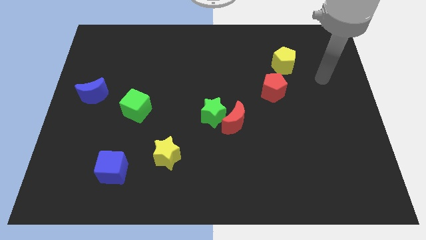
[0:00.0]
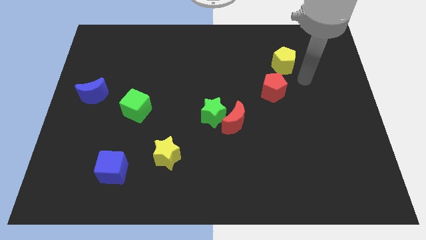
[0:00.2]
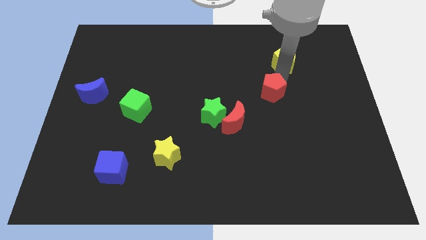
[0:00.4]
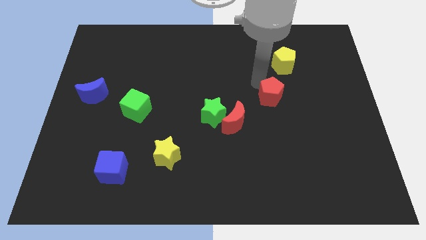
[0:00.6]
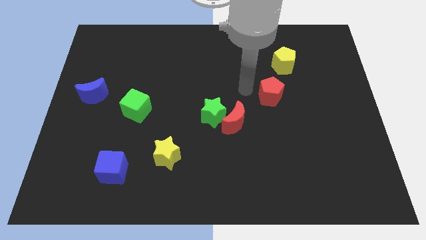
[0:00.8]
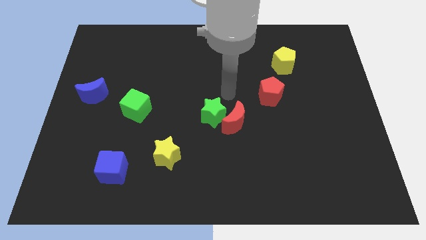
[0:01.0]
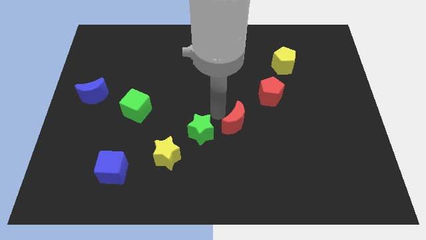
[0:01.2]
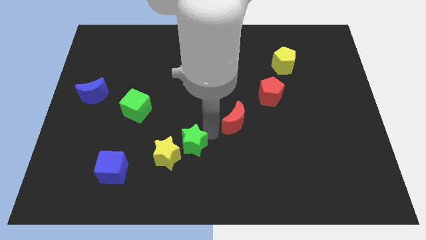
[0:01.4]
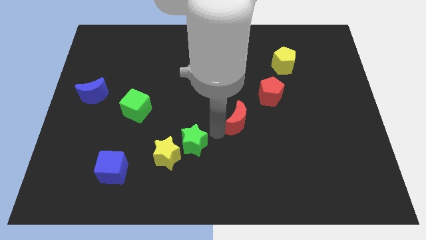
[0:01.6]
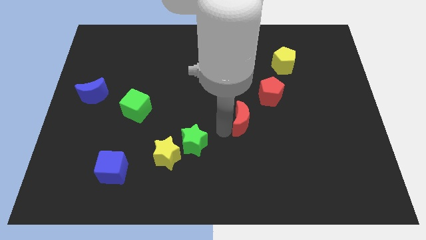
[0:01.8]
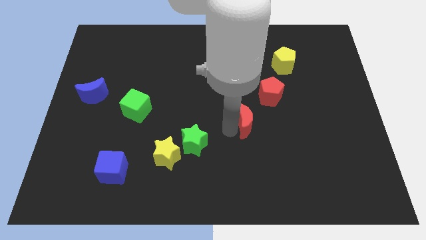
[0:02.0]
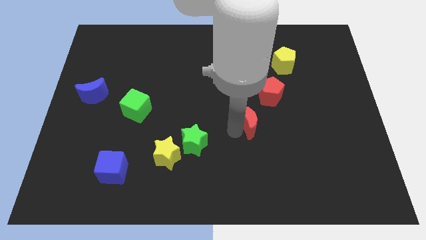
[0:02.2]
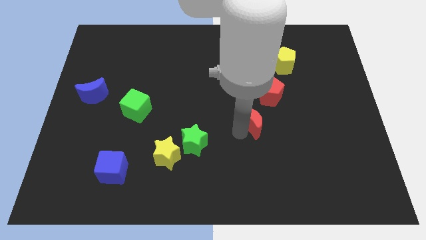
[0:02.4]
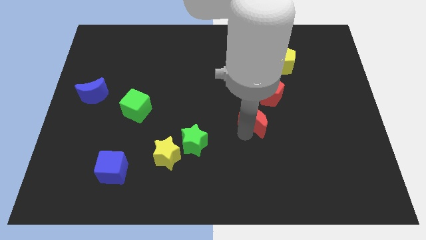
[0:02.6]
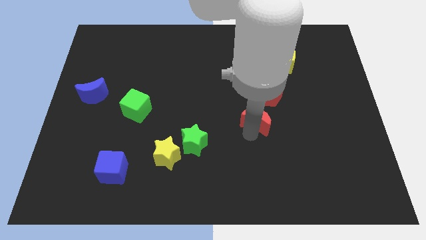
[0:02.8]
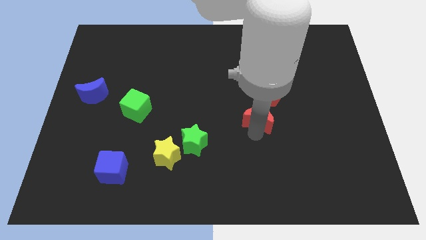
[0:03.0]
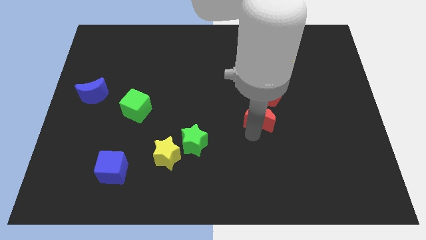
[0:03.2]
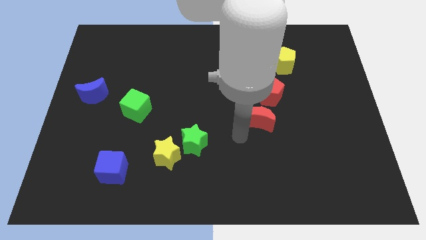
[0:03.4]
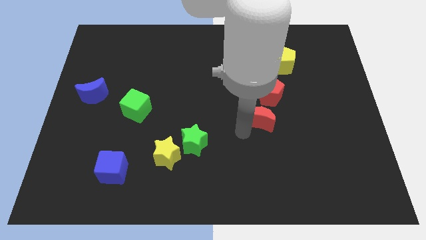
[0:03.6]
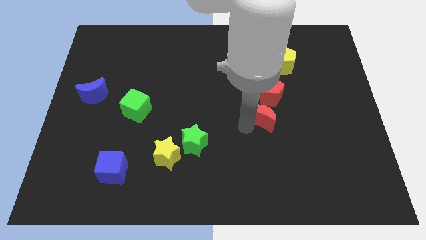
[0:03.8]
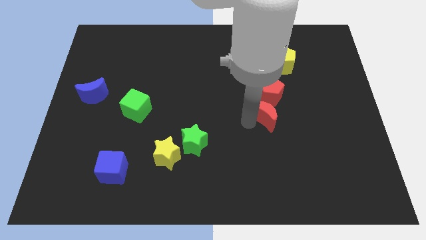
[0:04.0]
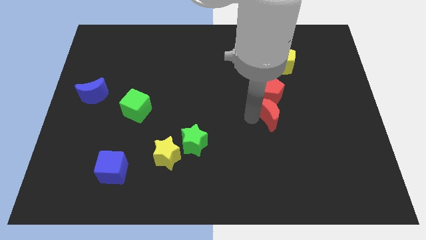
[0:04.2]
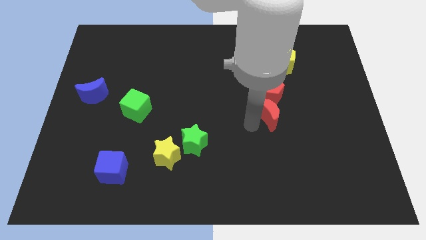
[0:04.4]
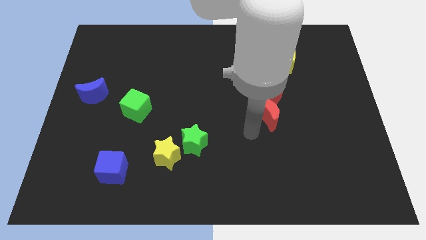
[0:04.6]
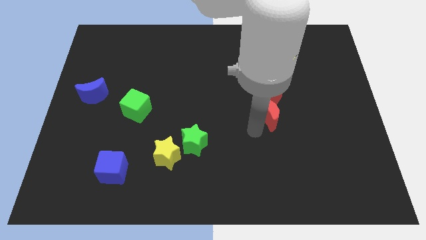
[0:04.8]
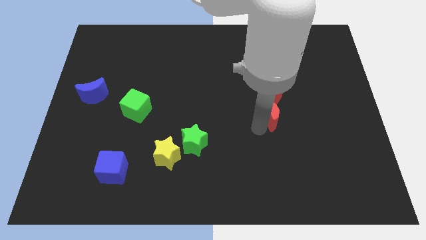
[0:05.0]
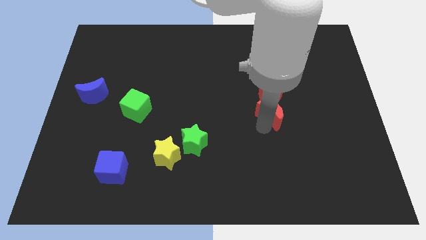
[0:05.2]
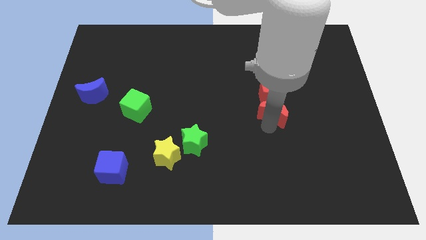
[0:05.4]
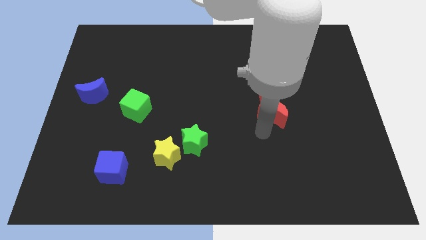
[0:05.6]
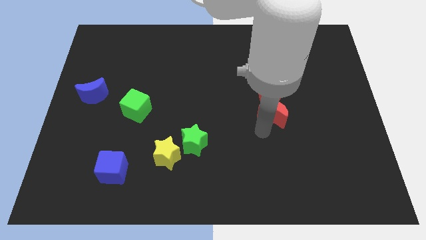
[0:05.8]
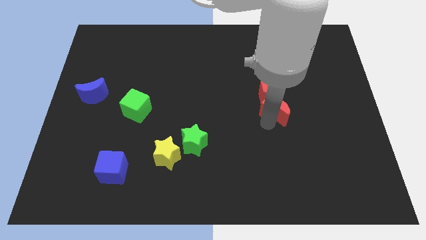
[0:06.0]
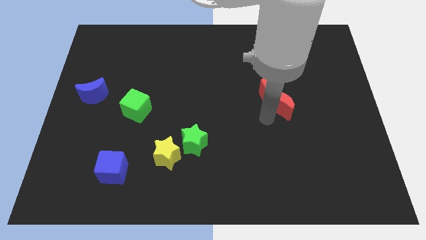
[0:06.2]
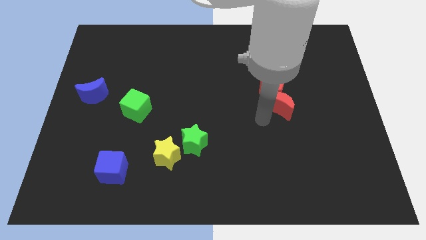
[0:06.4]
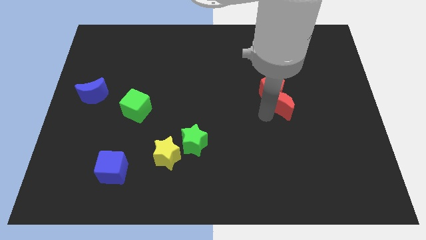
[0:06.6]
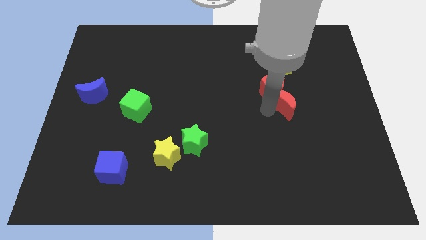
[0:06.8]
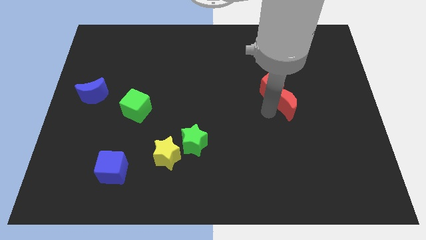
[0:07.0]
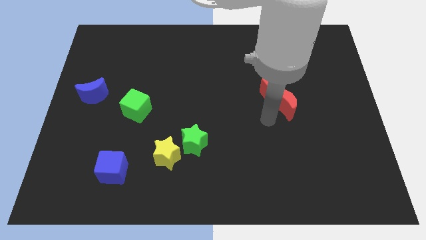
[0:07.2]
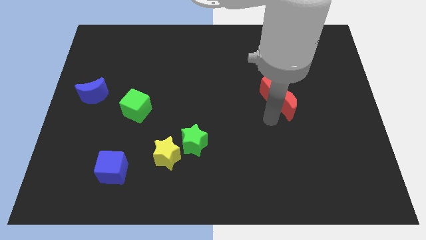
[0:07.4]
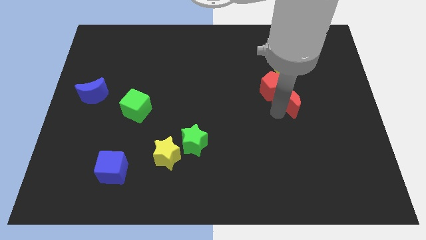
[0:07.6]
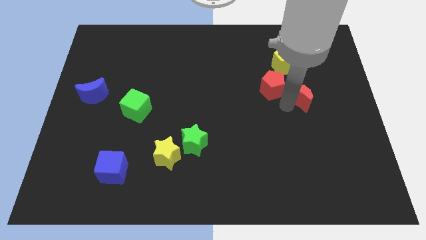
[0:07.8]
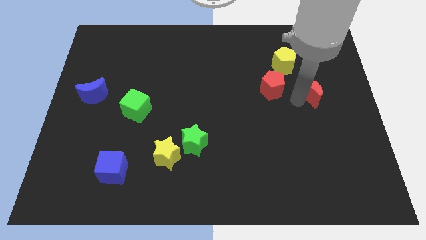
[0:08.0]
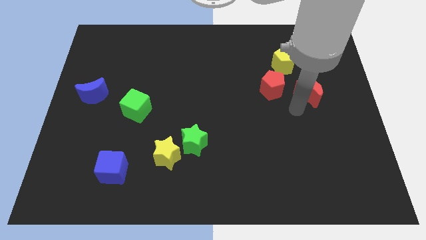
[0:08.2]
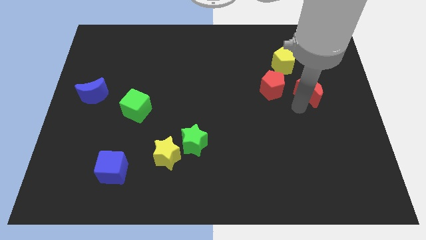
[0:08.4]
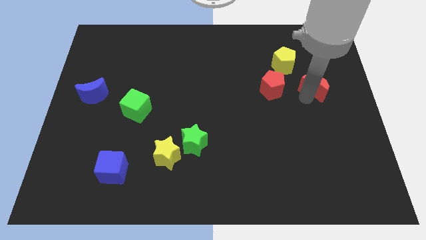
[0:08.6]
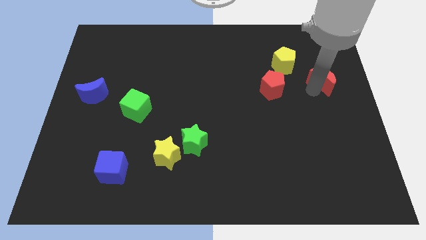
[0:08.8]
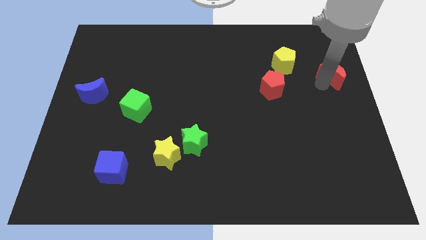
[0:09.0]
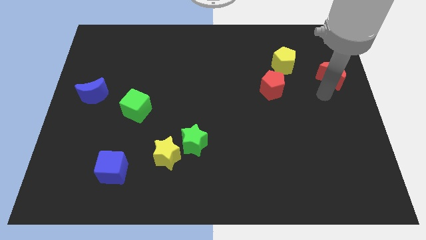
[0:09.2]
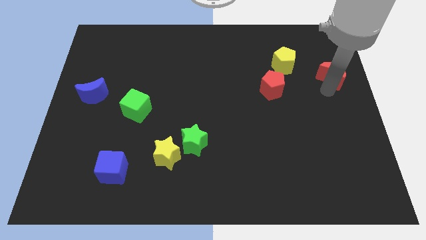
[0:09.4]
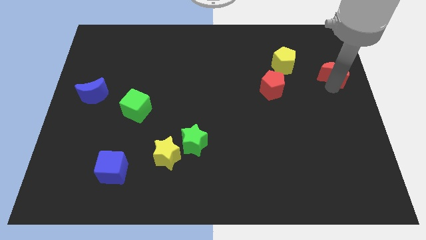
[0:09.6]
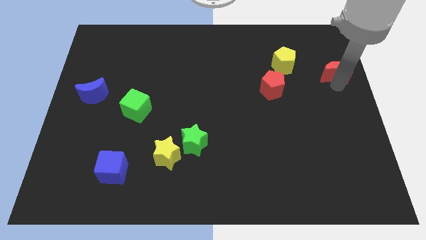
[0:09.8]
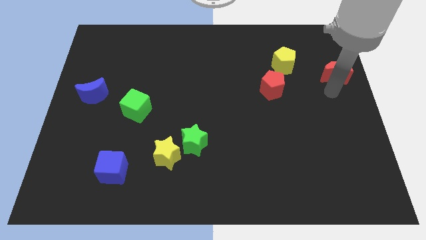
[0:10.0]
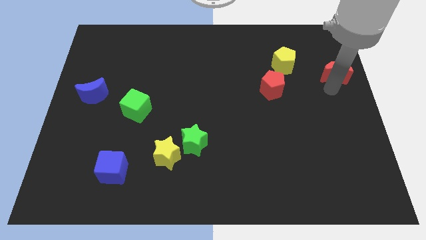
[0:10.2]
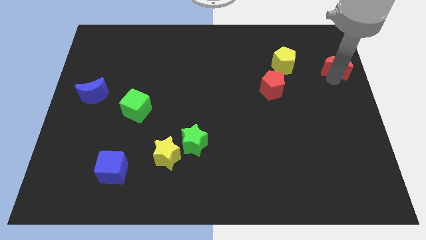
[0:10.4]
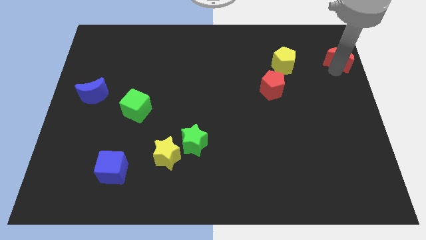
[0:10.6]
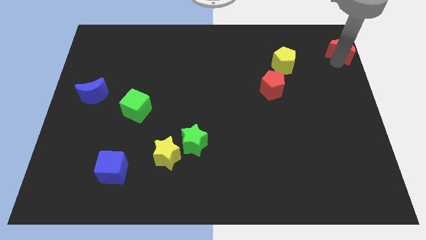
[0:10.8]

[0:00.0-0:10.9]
put the red moon to the top right of the board

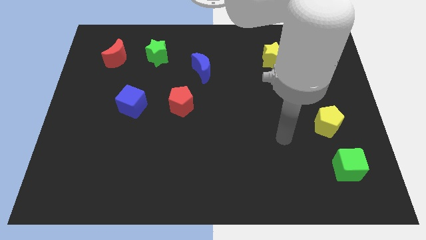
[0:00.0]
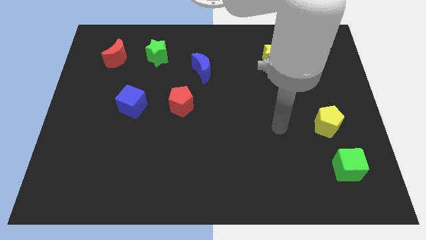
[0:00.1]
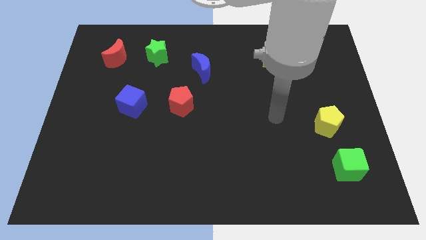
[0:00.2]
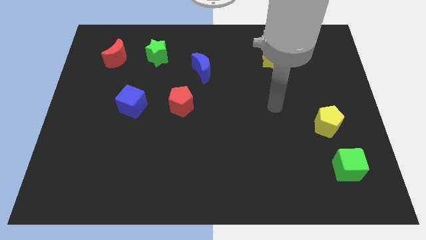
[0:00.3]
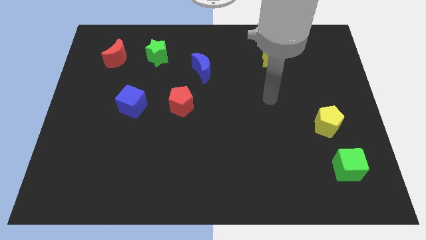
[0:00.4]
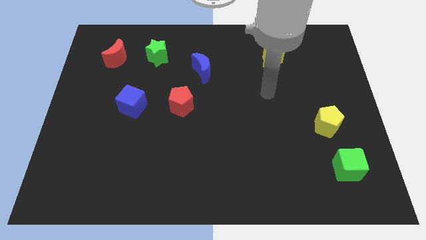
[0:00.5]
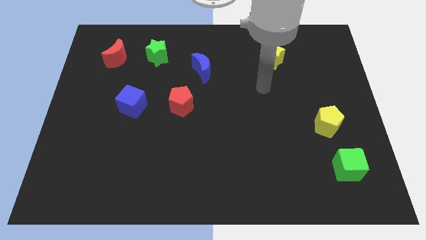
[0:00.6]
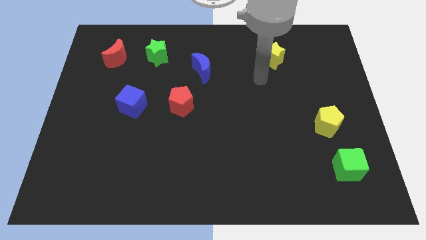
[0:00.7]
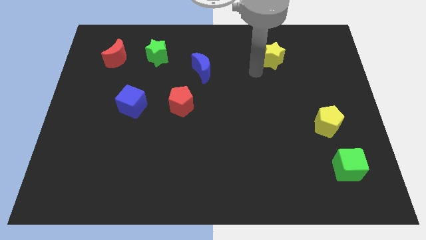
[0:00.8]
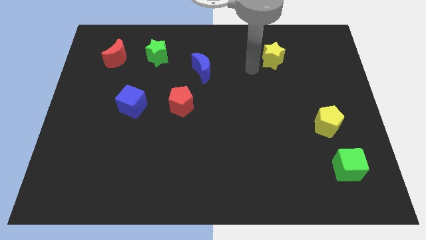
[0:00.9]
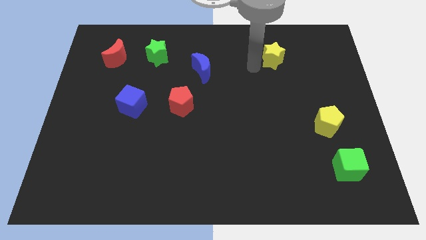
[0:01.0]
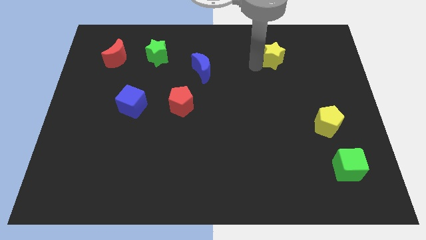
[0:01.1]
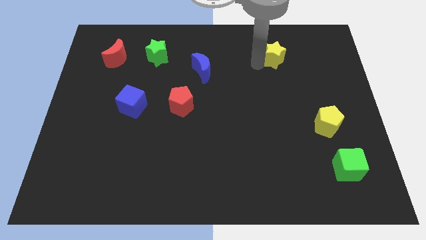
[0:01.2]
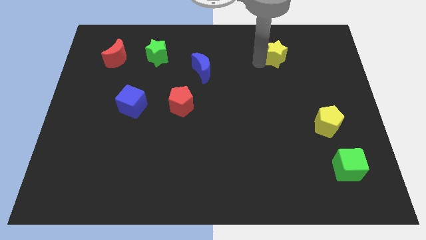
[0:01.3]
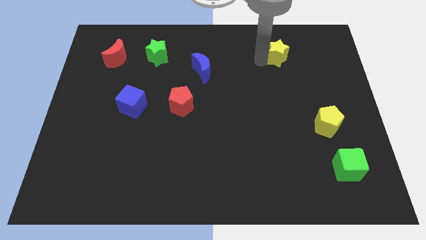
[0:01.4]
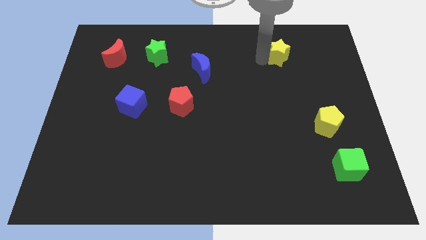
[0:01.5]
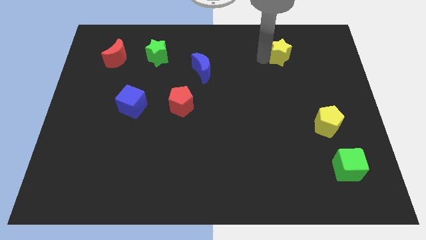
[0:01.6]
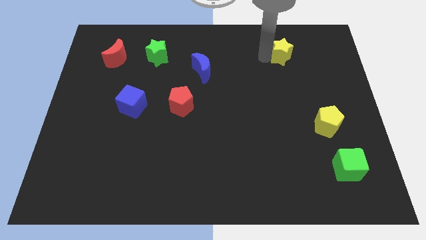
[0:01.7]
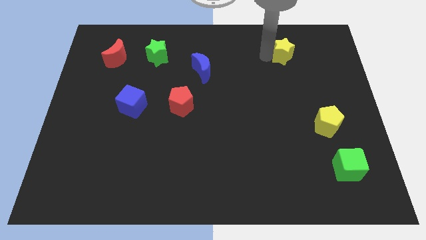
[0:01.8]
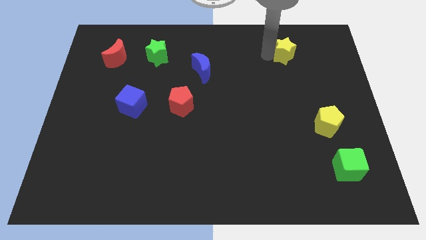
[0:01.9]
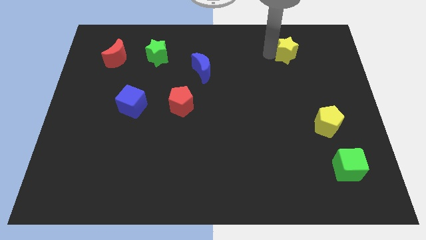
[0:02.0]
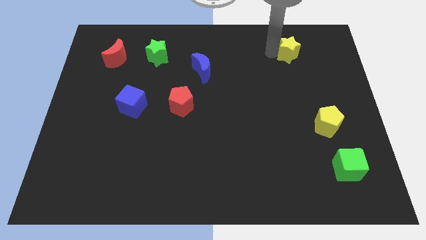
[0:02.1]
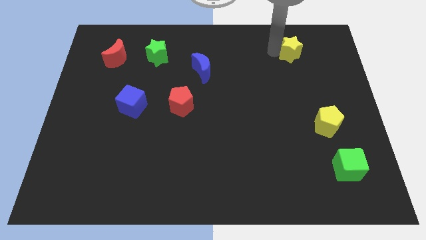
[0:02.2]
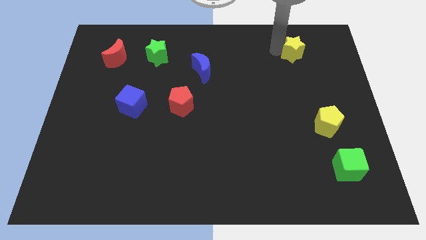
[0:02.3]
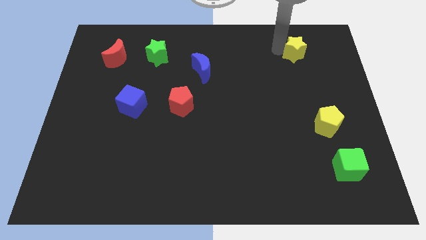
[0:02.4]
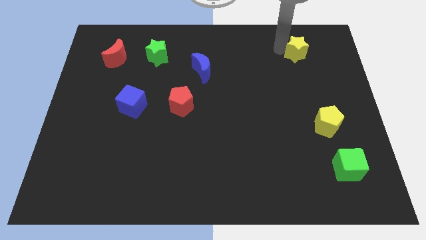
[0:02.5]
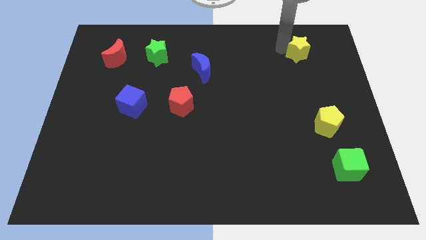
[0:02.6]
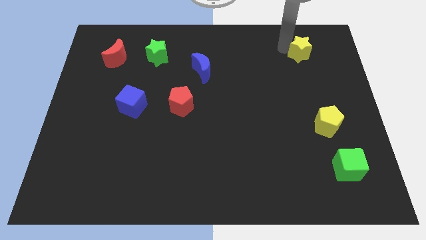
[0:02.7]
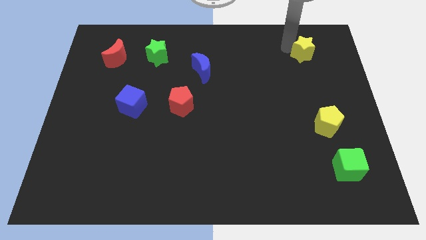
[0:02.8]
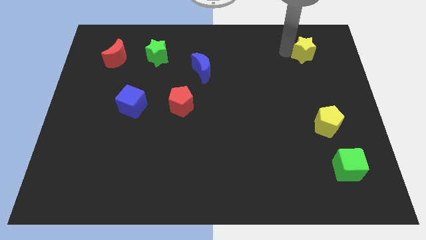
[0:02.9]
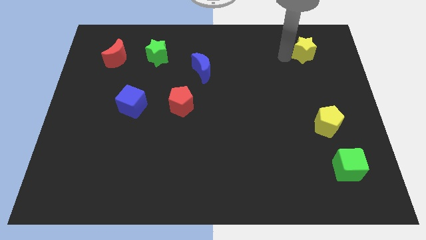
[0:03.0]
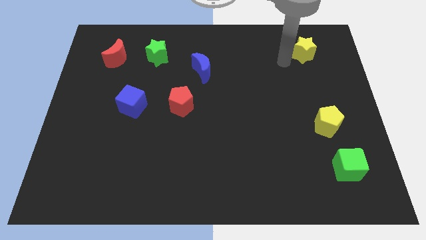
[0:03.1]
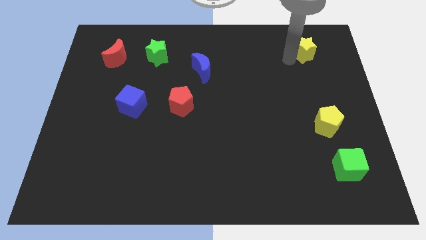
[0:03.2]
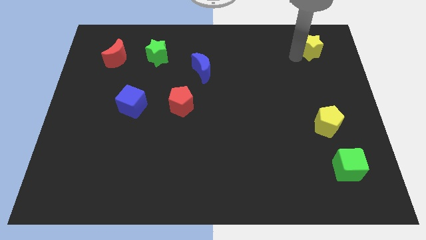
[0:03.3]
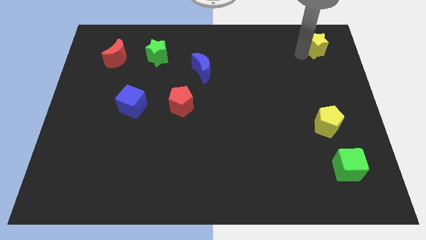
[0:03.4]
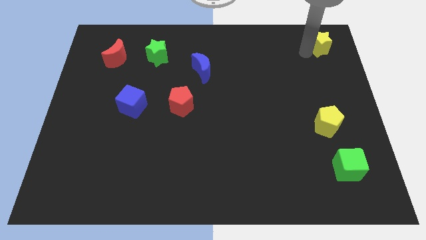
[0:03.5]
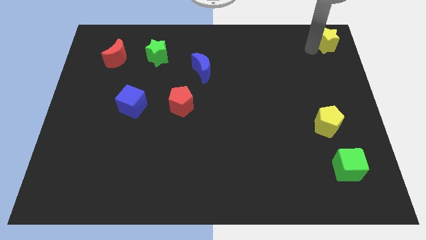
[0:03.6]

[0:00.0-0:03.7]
put the yellow star to the top right corner
